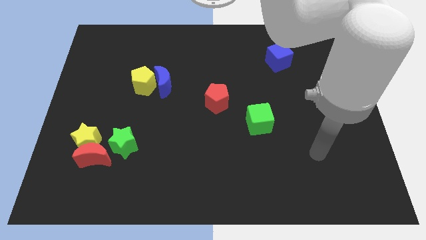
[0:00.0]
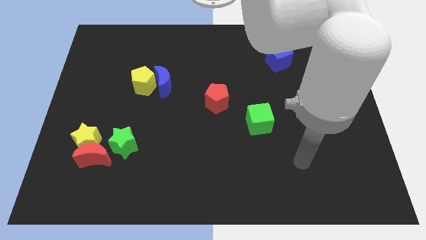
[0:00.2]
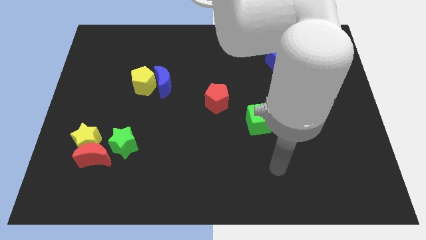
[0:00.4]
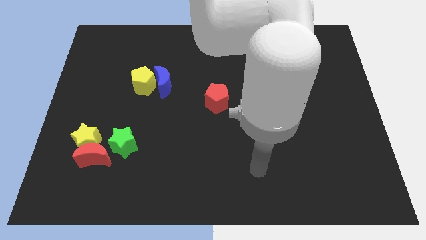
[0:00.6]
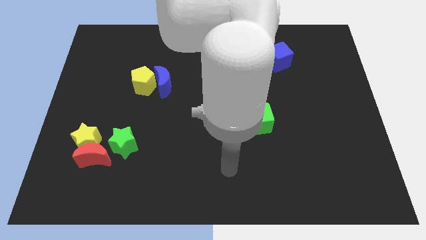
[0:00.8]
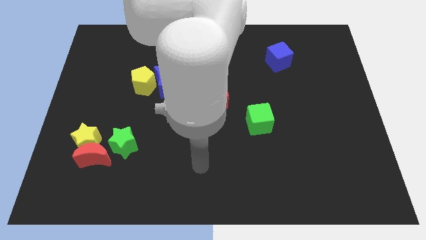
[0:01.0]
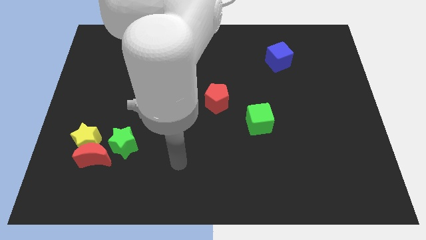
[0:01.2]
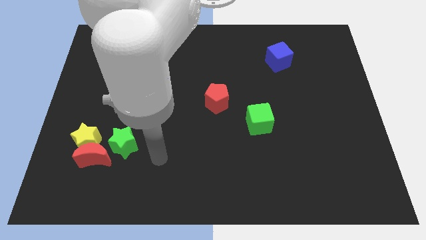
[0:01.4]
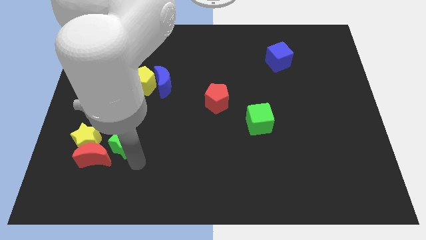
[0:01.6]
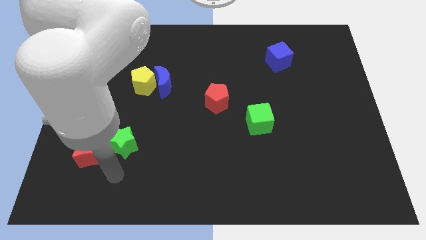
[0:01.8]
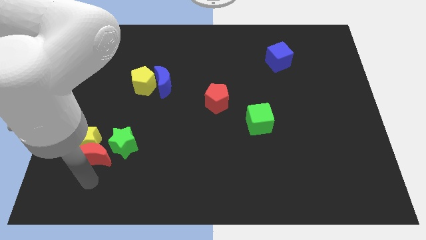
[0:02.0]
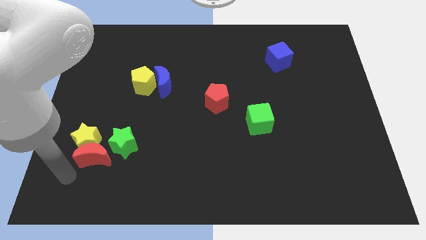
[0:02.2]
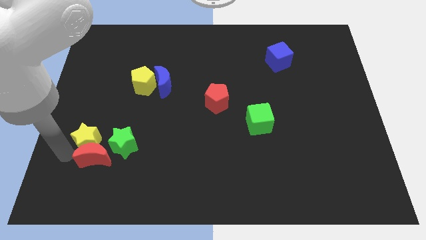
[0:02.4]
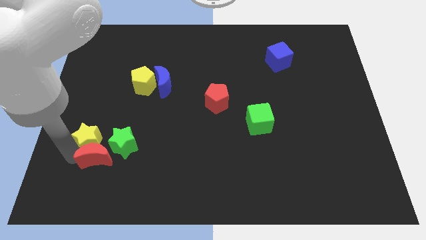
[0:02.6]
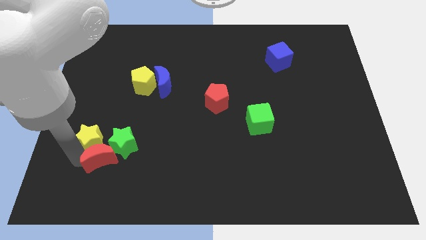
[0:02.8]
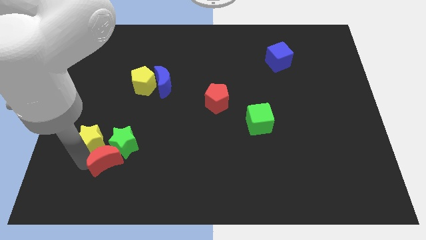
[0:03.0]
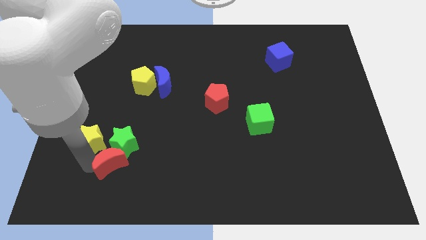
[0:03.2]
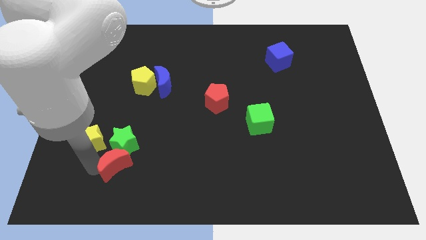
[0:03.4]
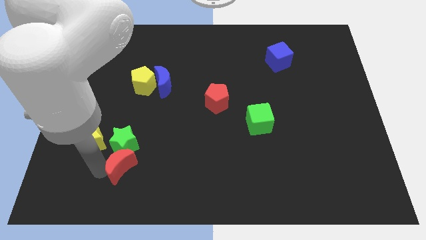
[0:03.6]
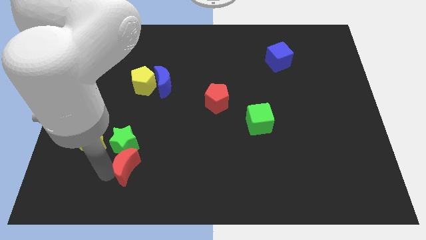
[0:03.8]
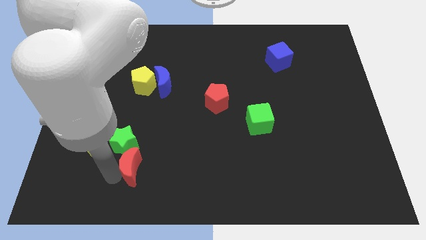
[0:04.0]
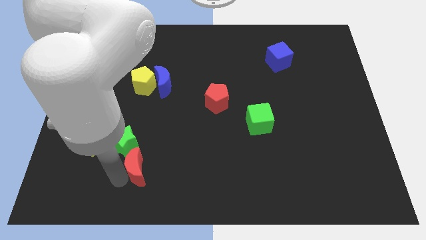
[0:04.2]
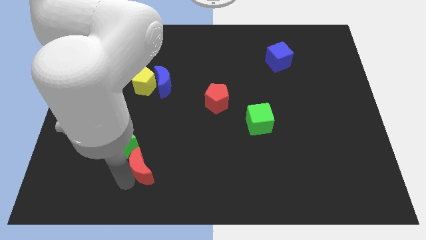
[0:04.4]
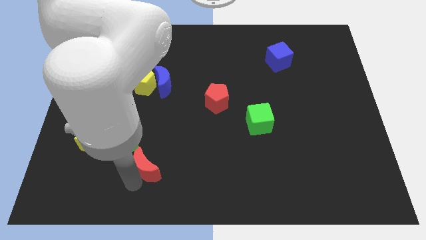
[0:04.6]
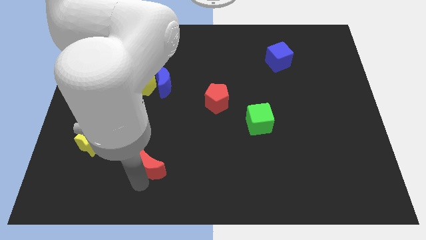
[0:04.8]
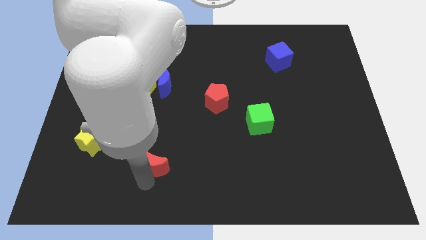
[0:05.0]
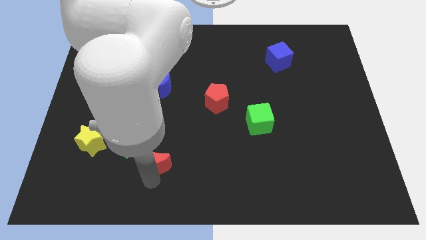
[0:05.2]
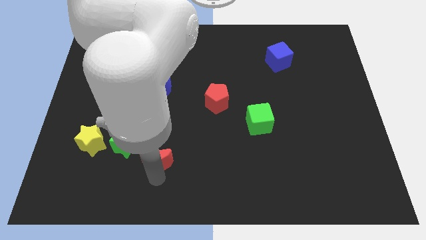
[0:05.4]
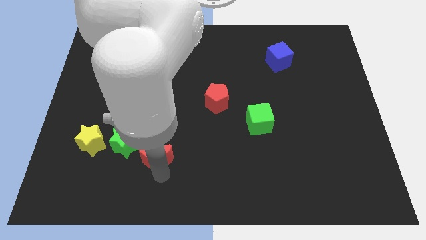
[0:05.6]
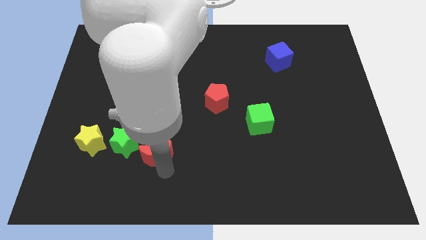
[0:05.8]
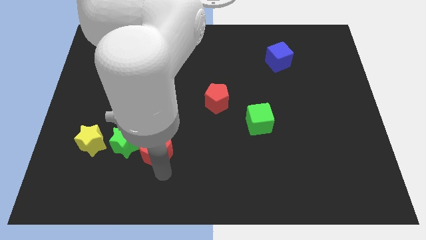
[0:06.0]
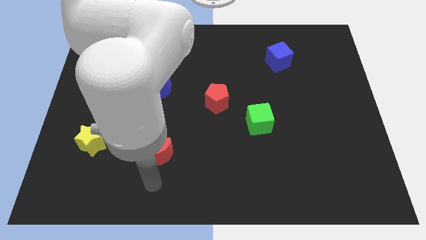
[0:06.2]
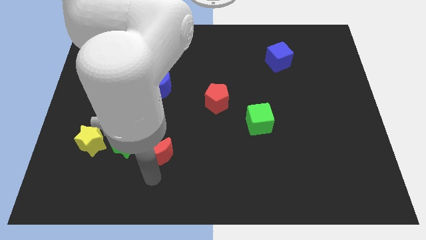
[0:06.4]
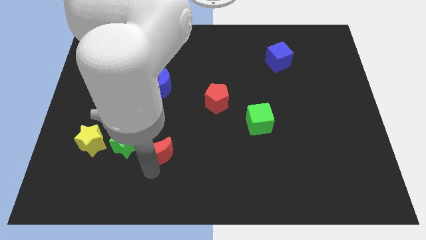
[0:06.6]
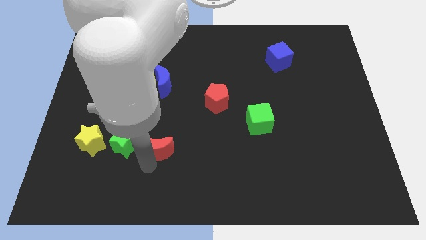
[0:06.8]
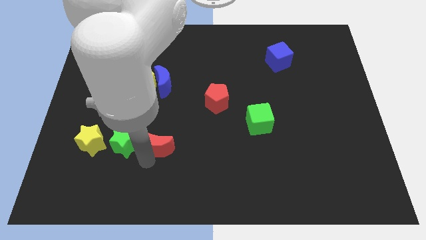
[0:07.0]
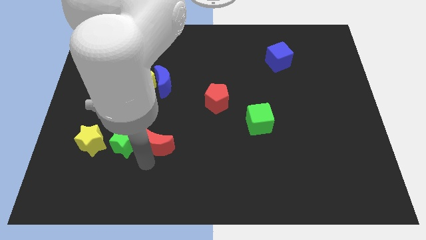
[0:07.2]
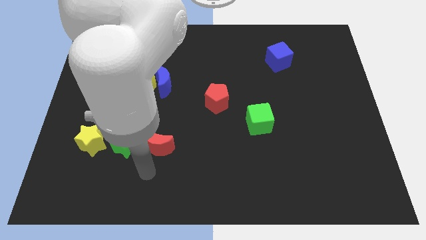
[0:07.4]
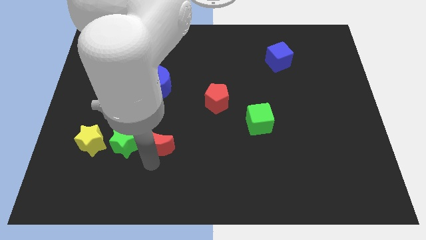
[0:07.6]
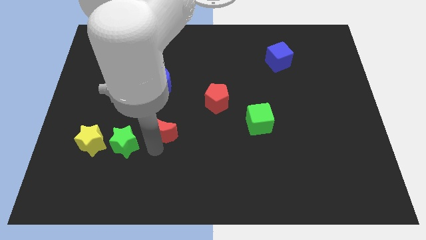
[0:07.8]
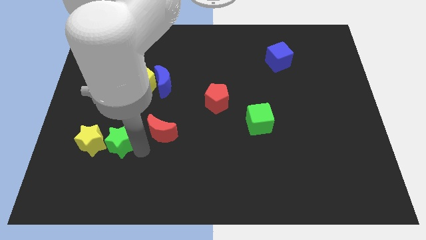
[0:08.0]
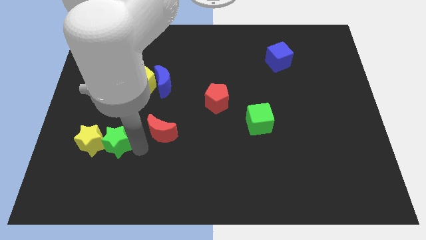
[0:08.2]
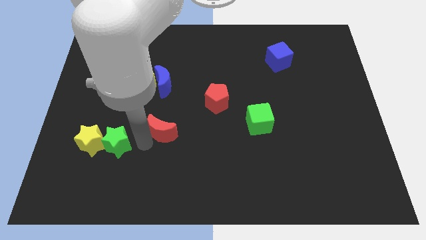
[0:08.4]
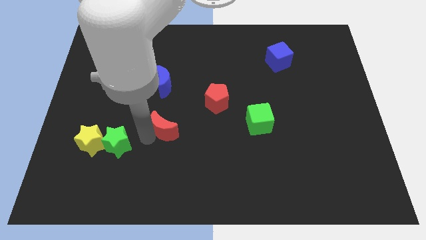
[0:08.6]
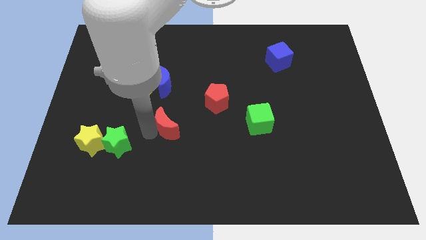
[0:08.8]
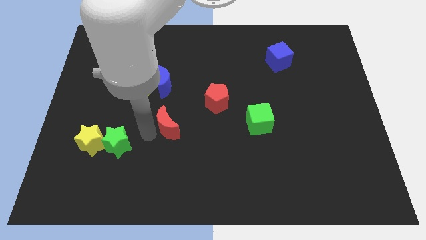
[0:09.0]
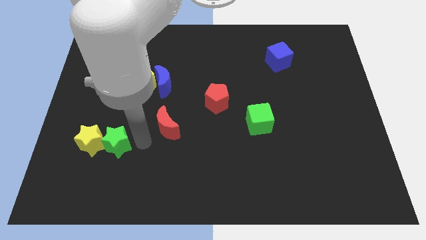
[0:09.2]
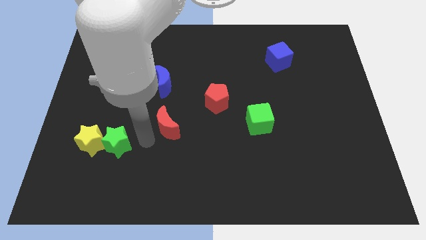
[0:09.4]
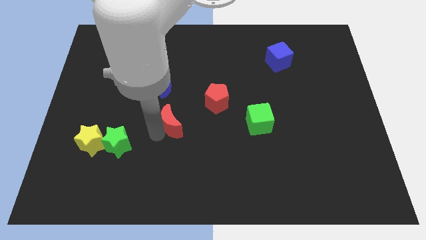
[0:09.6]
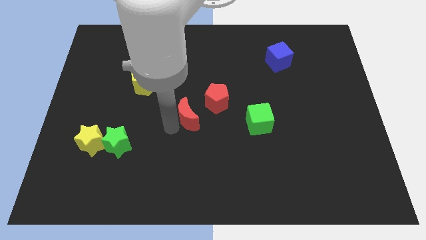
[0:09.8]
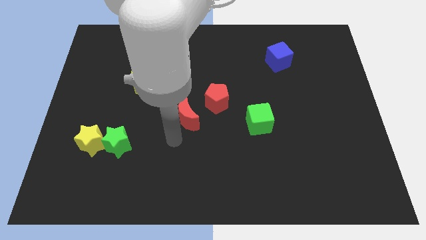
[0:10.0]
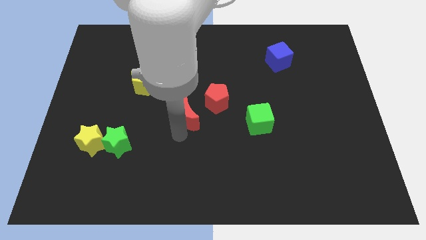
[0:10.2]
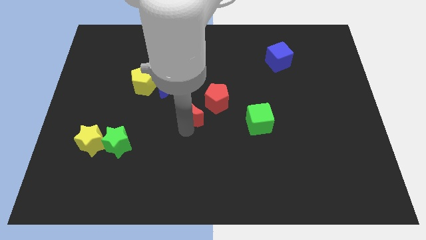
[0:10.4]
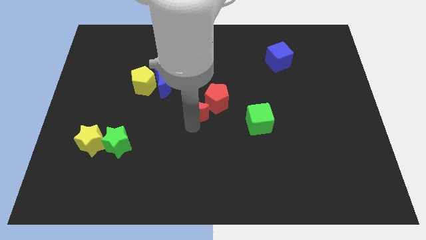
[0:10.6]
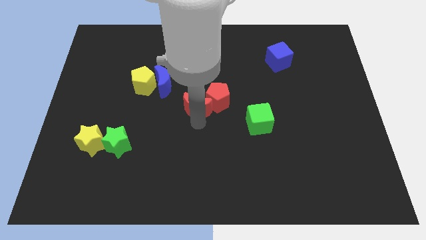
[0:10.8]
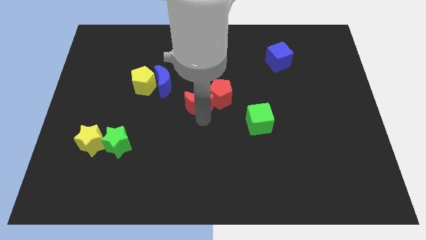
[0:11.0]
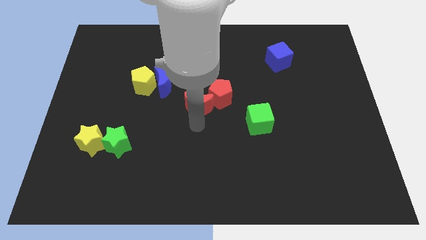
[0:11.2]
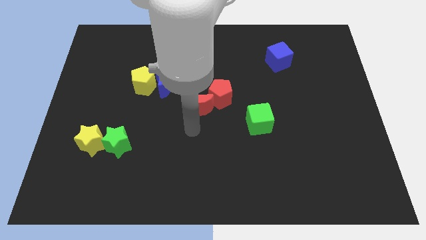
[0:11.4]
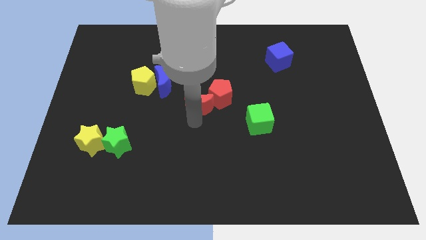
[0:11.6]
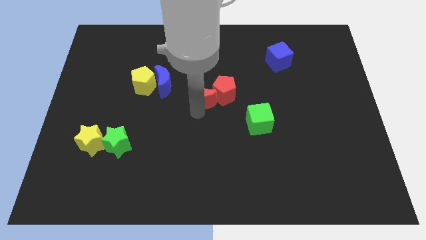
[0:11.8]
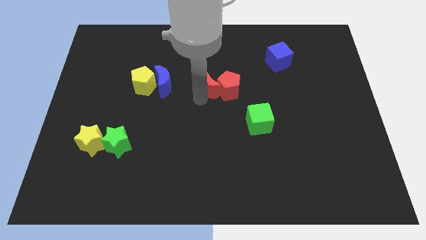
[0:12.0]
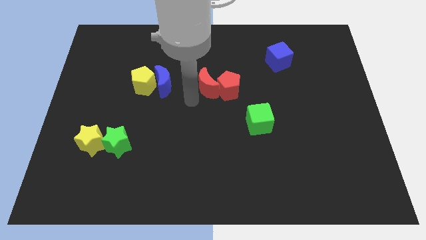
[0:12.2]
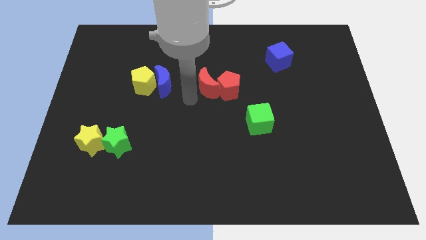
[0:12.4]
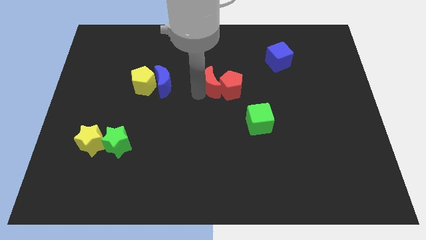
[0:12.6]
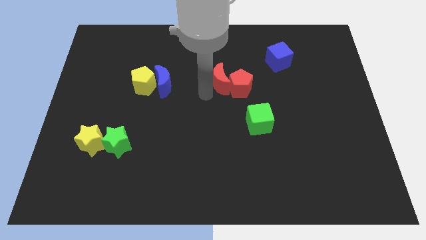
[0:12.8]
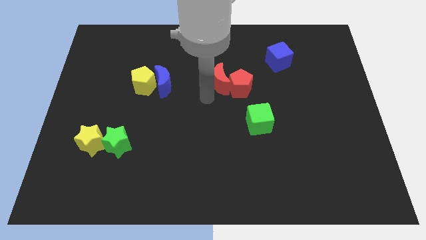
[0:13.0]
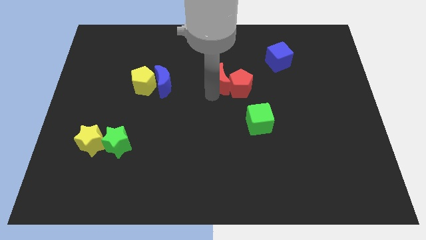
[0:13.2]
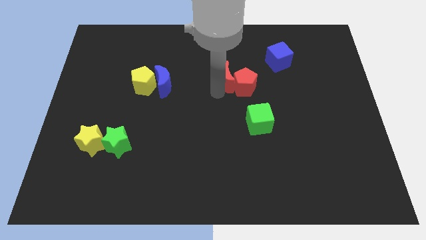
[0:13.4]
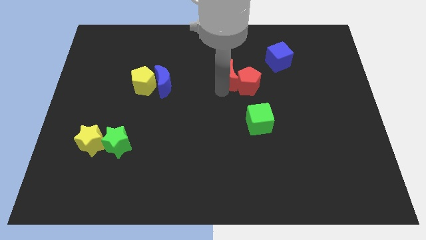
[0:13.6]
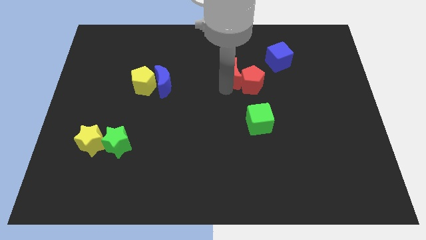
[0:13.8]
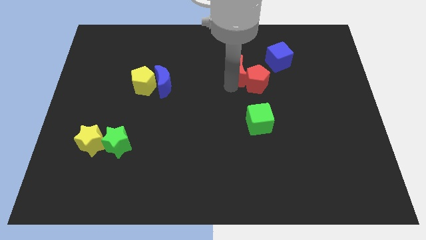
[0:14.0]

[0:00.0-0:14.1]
slide the red moon left of the blue cube
